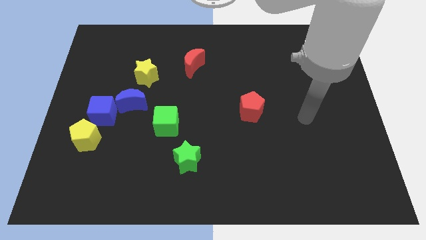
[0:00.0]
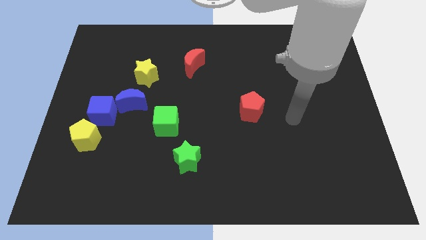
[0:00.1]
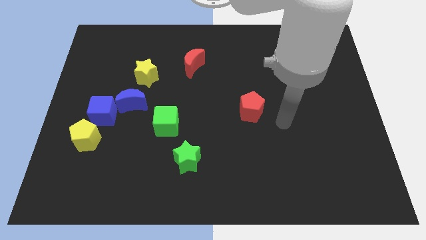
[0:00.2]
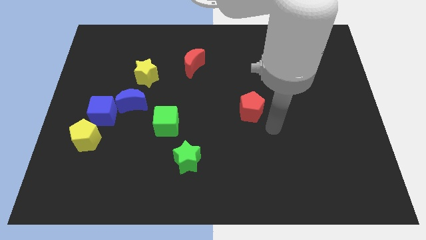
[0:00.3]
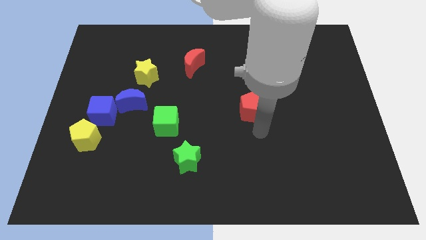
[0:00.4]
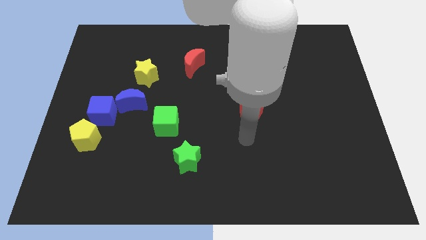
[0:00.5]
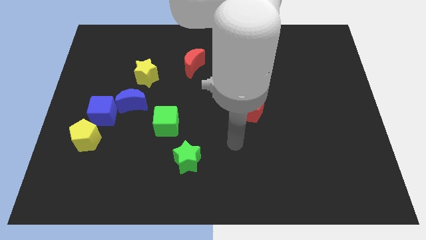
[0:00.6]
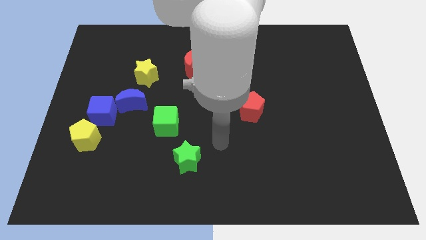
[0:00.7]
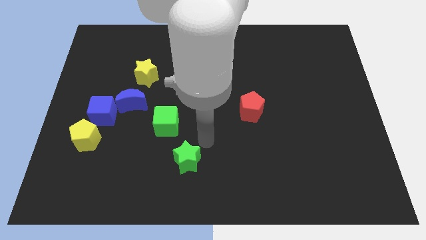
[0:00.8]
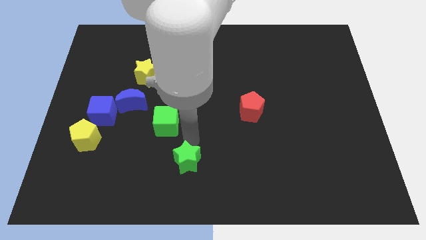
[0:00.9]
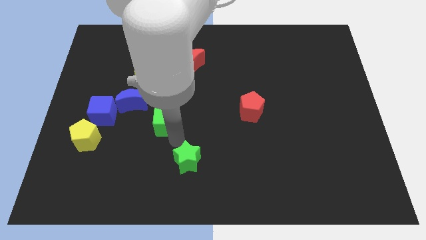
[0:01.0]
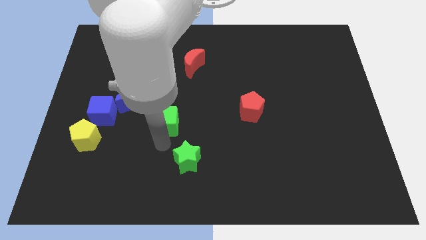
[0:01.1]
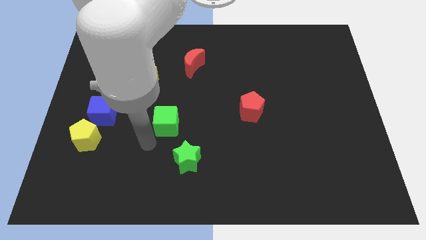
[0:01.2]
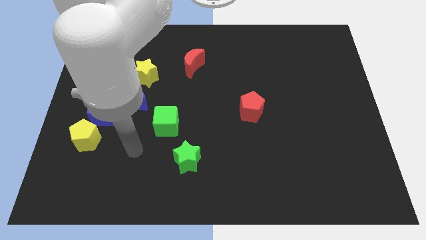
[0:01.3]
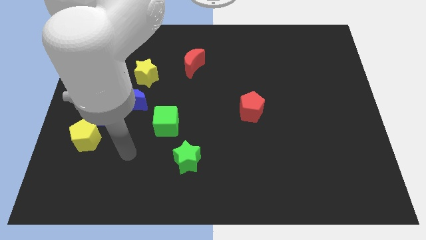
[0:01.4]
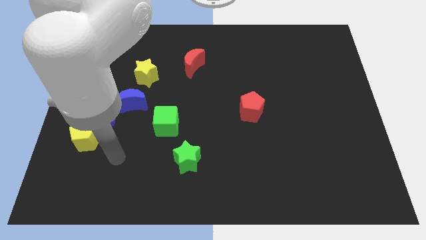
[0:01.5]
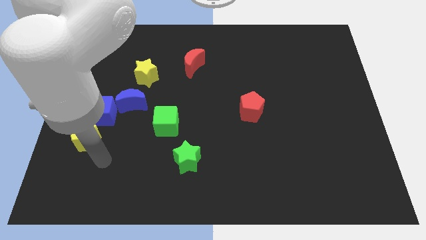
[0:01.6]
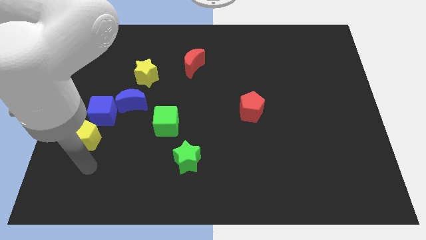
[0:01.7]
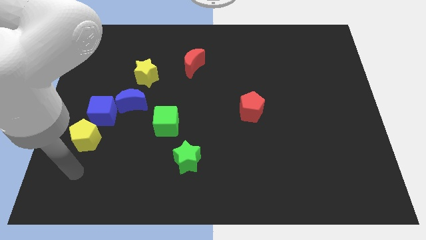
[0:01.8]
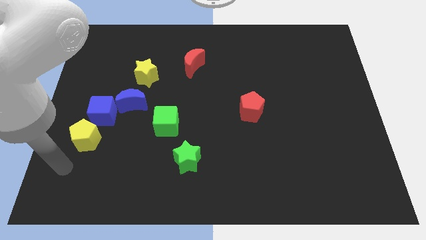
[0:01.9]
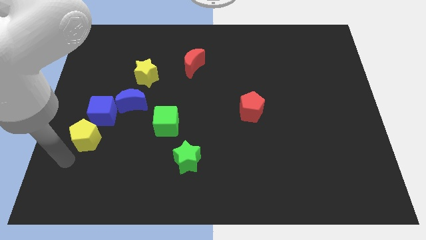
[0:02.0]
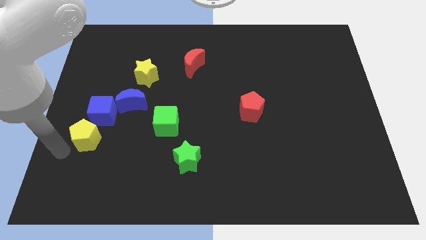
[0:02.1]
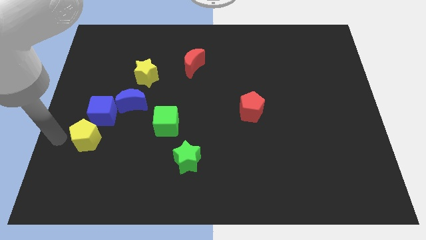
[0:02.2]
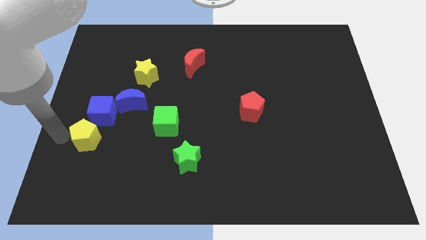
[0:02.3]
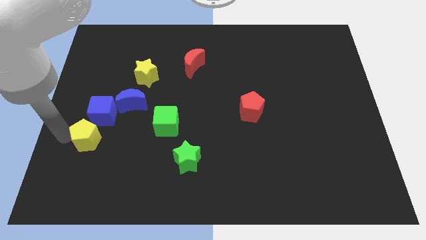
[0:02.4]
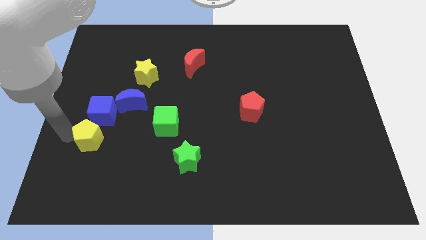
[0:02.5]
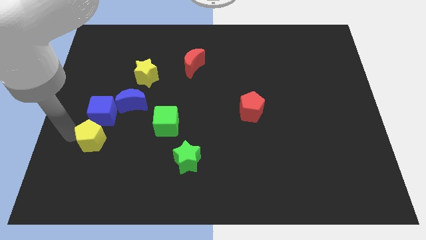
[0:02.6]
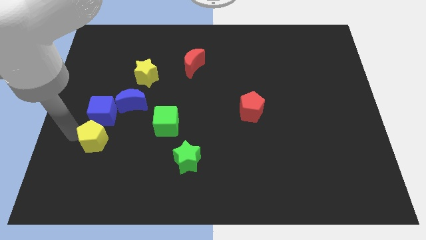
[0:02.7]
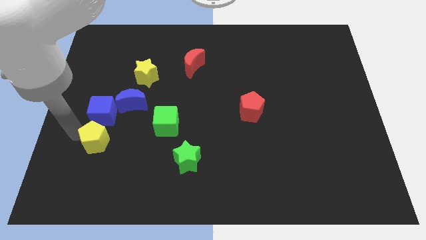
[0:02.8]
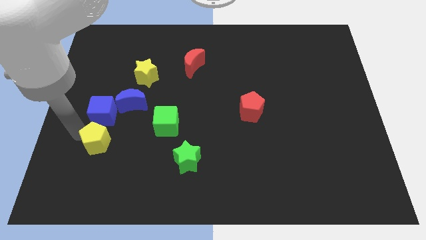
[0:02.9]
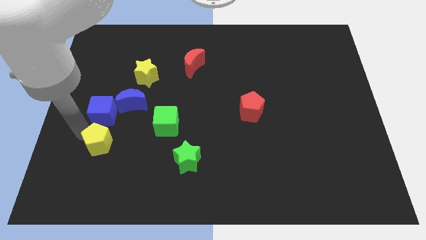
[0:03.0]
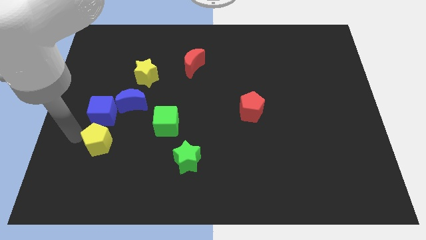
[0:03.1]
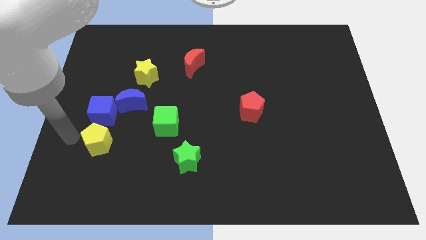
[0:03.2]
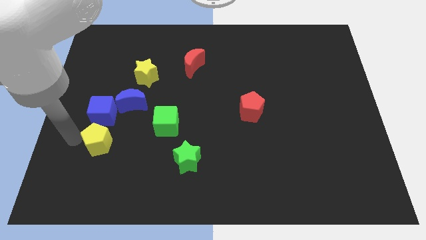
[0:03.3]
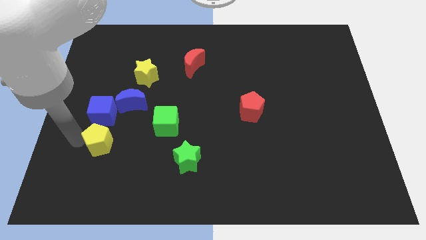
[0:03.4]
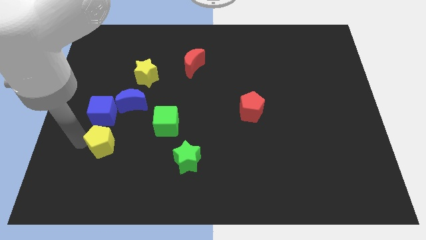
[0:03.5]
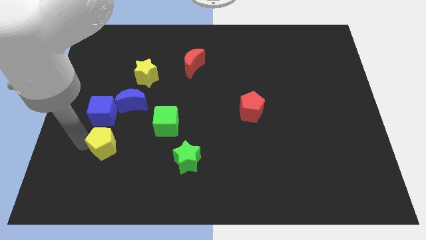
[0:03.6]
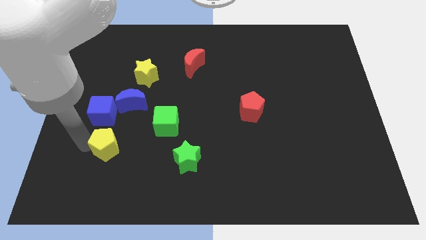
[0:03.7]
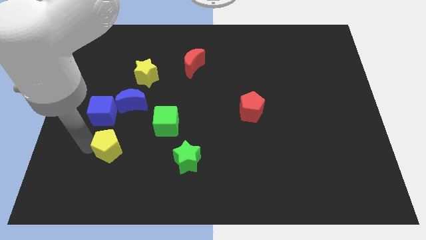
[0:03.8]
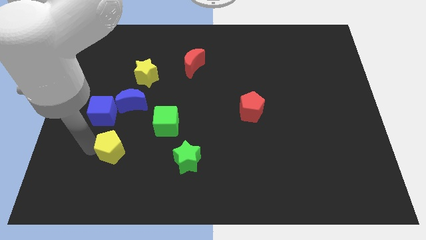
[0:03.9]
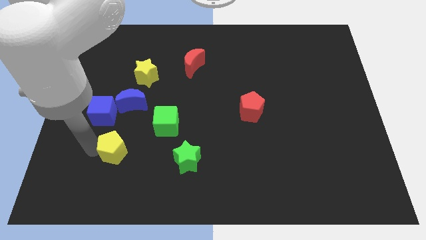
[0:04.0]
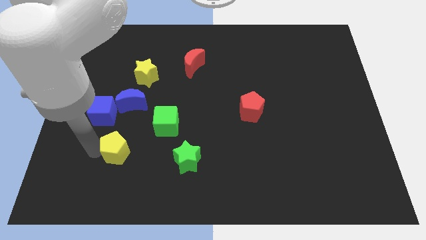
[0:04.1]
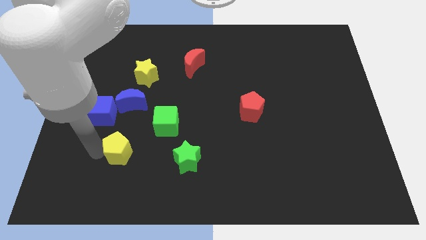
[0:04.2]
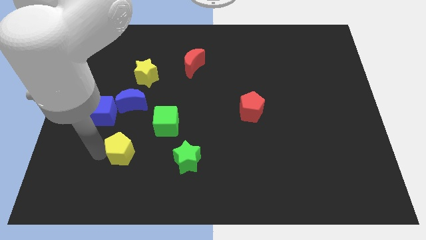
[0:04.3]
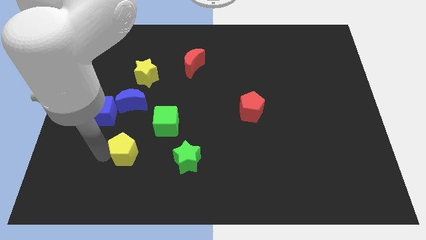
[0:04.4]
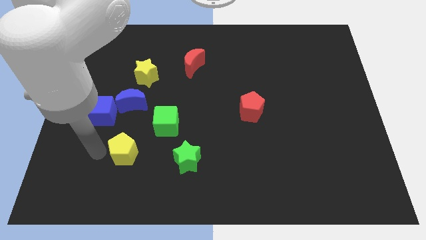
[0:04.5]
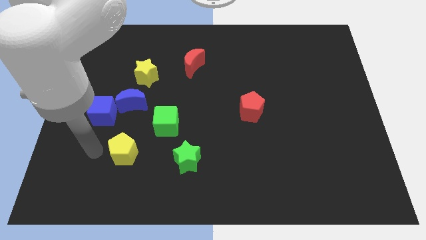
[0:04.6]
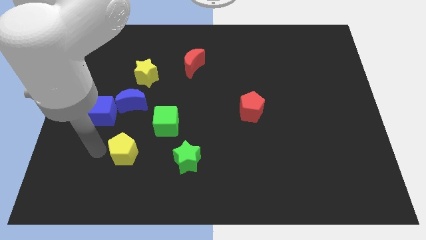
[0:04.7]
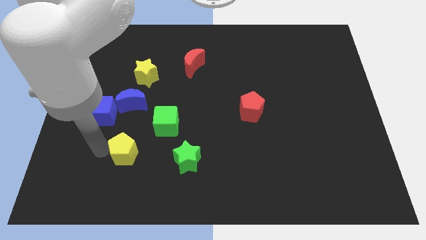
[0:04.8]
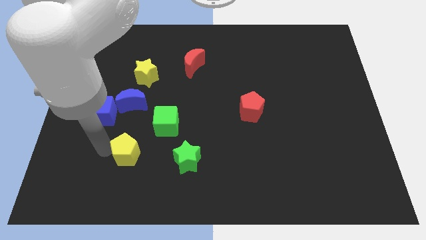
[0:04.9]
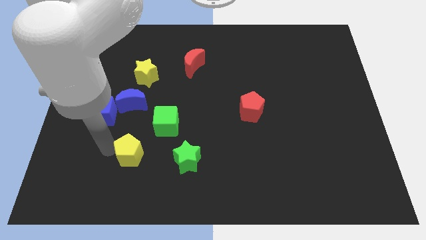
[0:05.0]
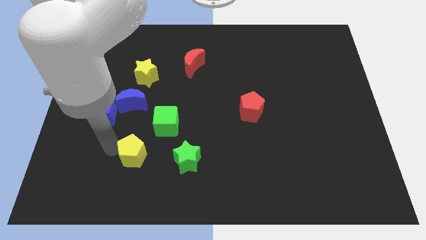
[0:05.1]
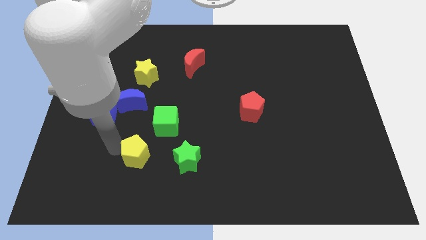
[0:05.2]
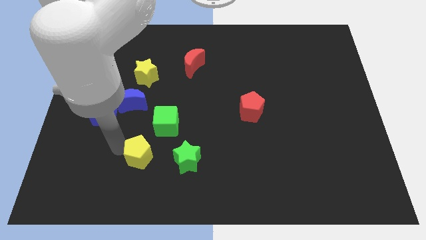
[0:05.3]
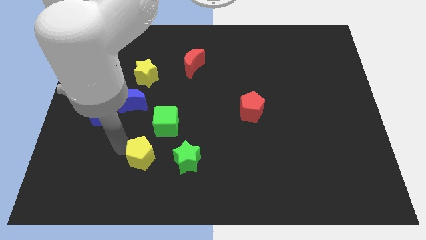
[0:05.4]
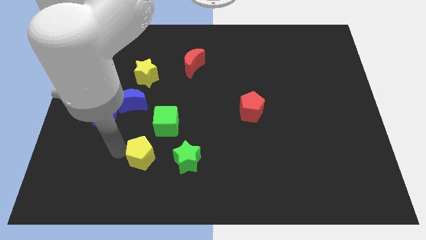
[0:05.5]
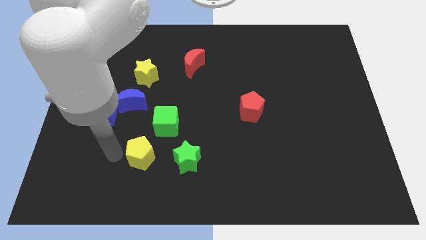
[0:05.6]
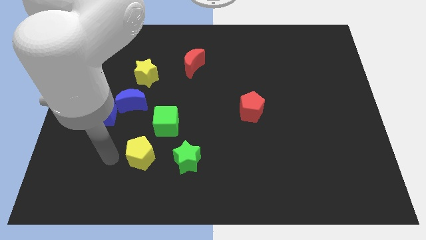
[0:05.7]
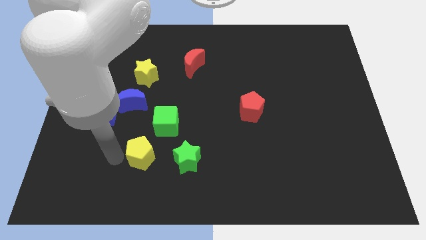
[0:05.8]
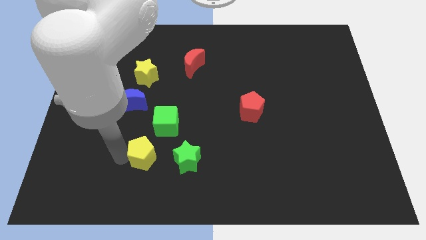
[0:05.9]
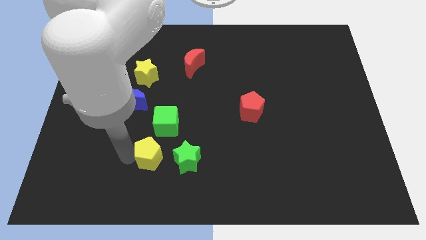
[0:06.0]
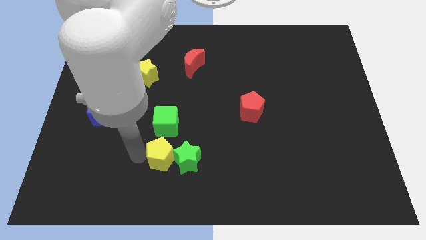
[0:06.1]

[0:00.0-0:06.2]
move the yellow pentagon next to the green star

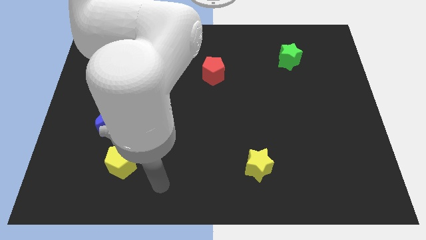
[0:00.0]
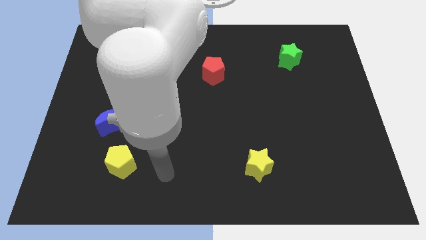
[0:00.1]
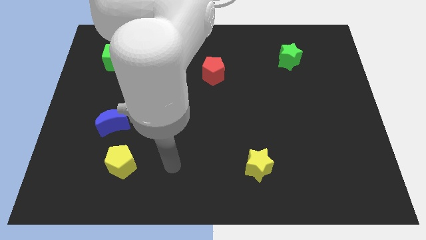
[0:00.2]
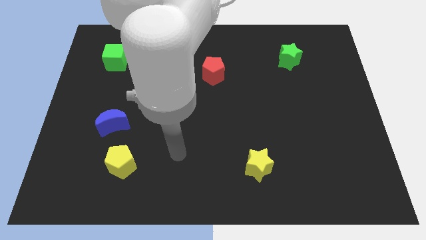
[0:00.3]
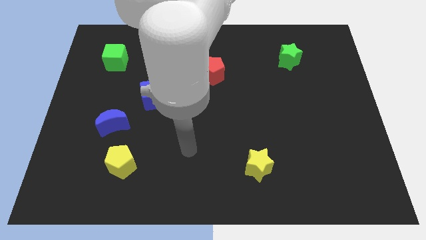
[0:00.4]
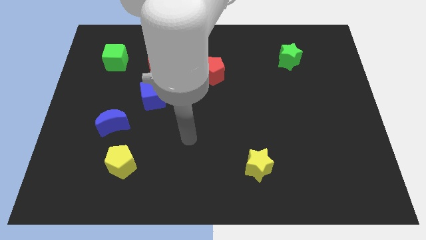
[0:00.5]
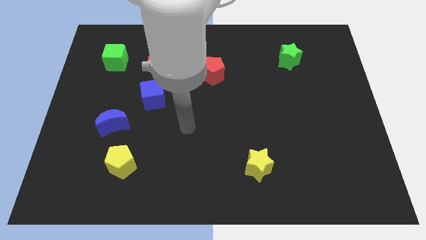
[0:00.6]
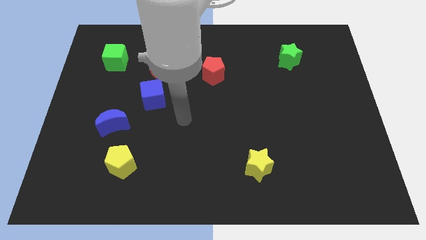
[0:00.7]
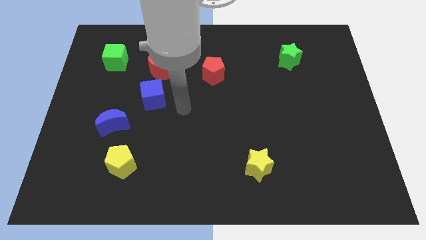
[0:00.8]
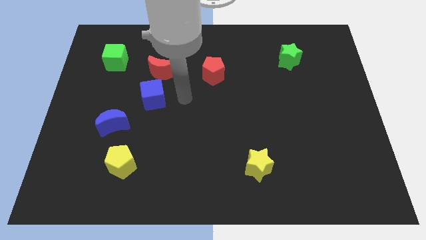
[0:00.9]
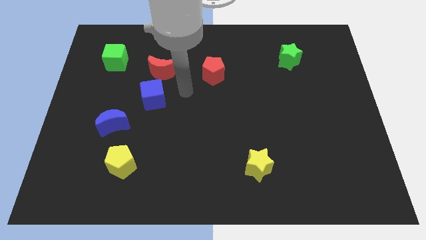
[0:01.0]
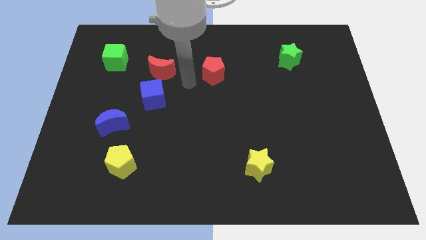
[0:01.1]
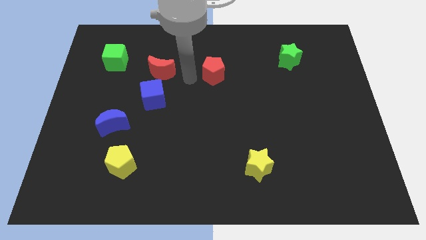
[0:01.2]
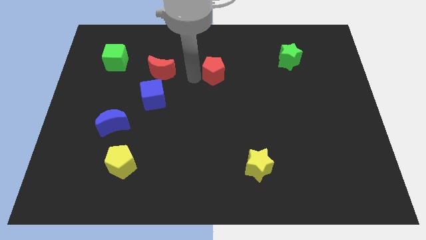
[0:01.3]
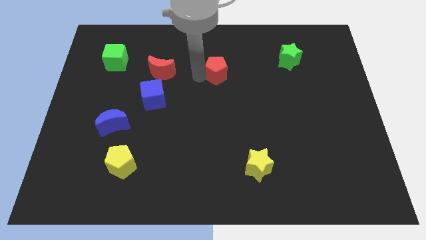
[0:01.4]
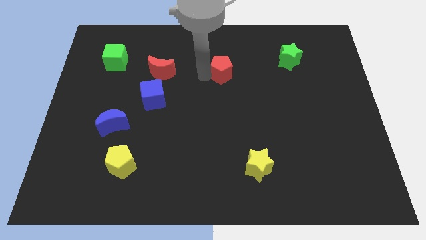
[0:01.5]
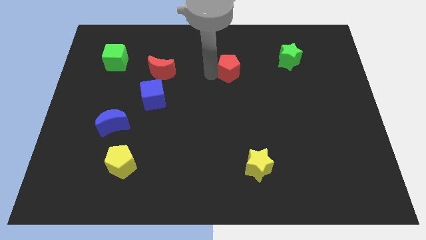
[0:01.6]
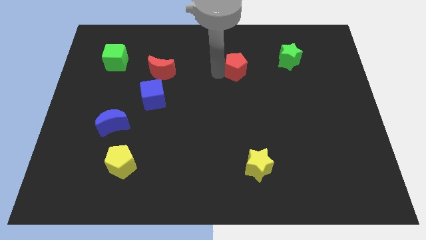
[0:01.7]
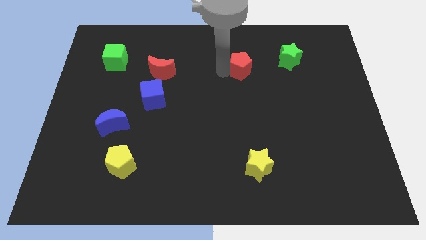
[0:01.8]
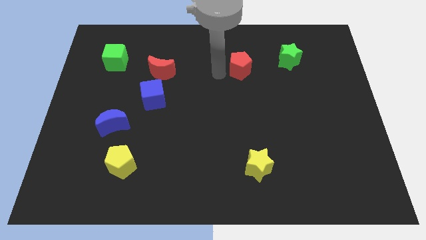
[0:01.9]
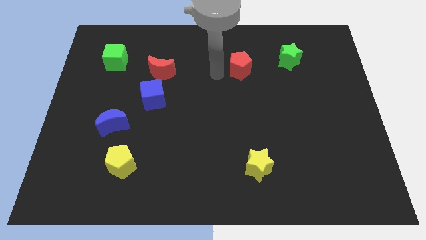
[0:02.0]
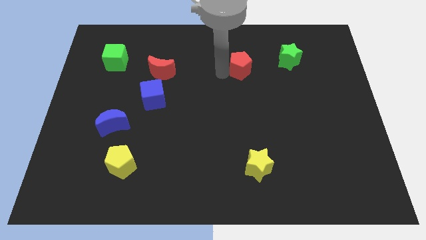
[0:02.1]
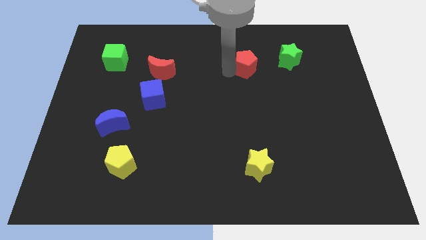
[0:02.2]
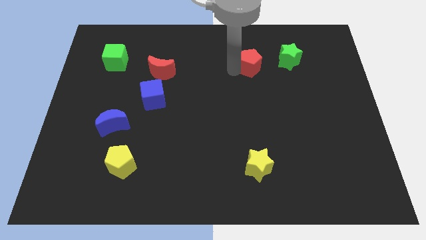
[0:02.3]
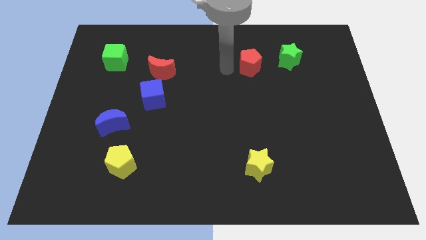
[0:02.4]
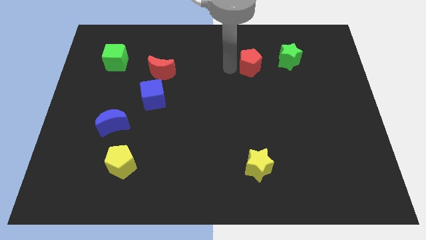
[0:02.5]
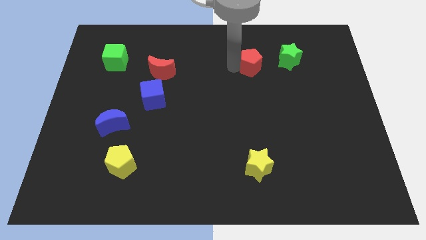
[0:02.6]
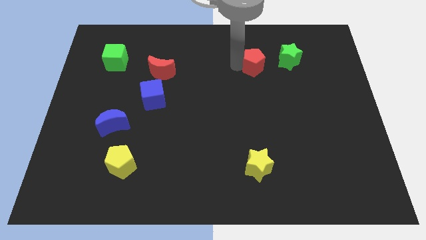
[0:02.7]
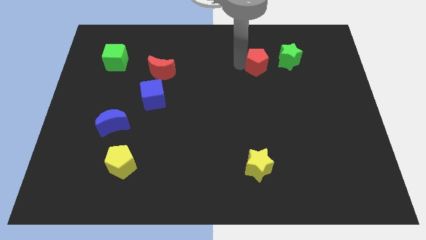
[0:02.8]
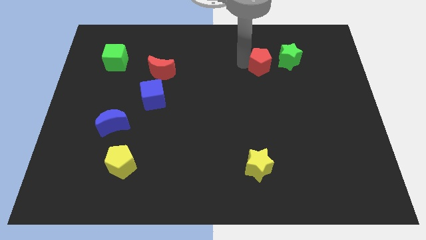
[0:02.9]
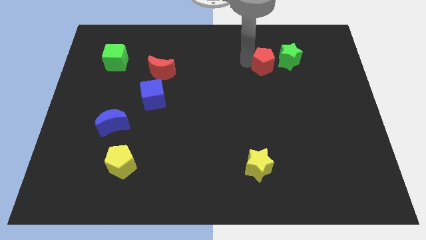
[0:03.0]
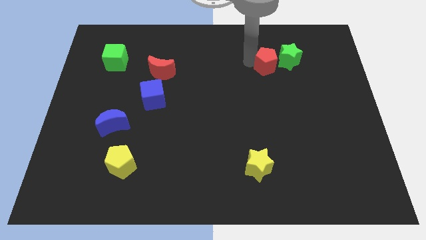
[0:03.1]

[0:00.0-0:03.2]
move the red pentagon close to the green star
